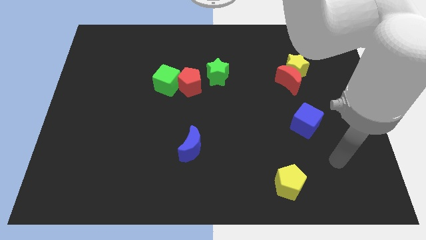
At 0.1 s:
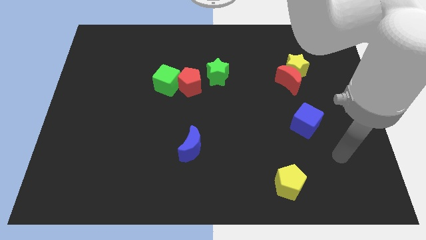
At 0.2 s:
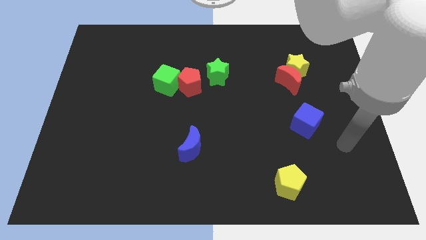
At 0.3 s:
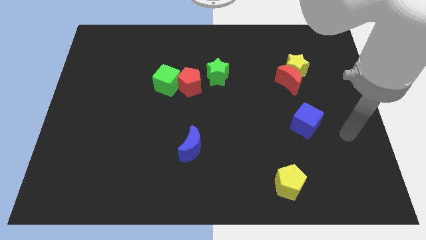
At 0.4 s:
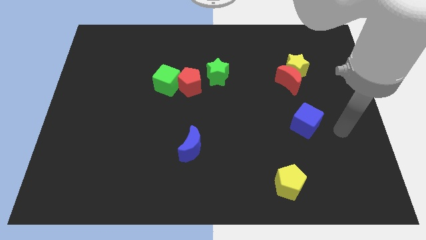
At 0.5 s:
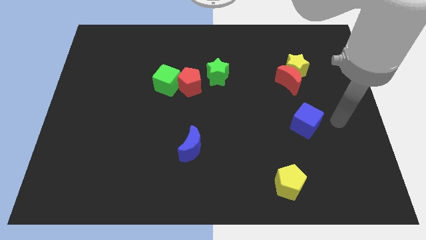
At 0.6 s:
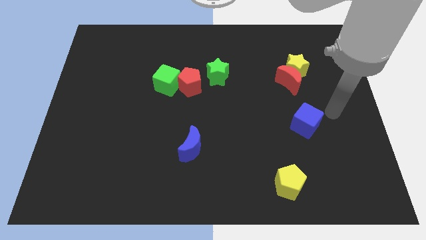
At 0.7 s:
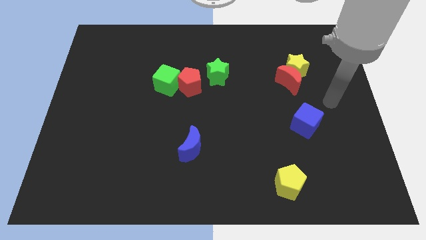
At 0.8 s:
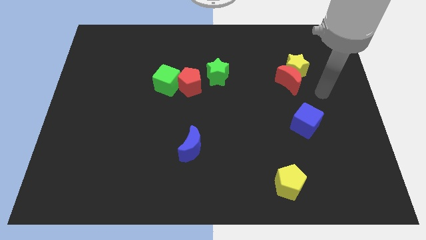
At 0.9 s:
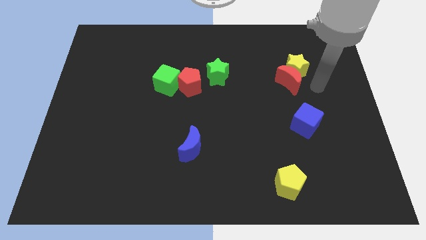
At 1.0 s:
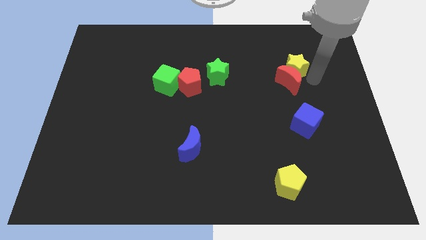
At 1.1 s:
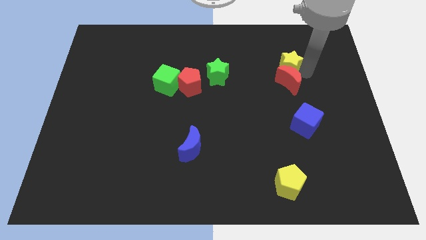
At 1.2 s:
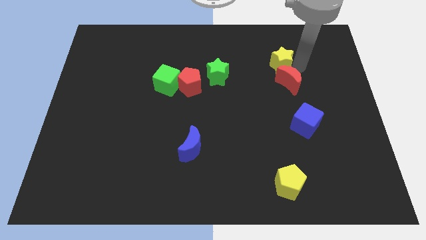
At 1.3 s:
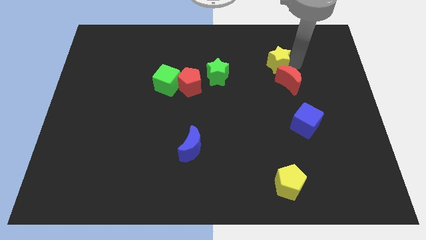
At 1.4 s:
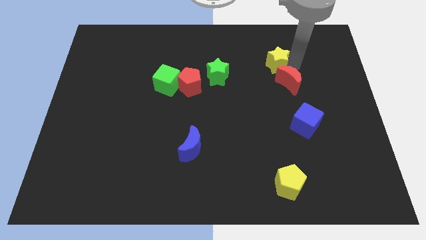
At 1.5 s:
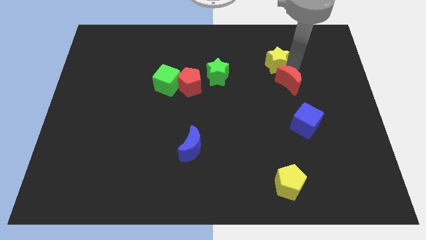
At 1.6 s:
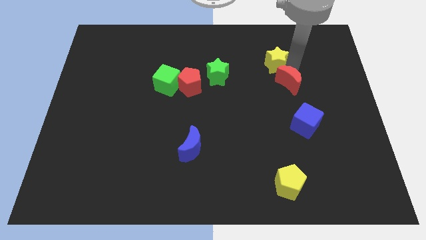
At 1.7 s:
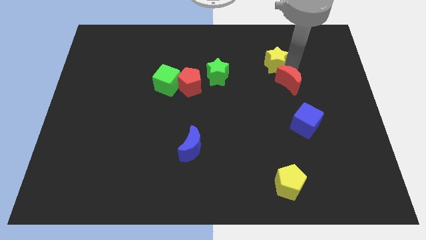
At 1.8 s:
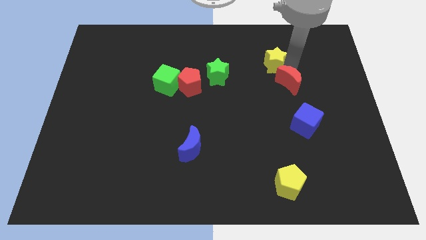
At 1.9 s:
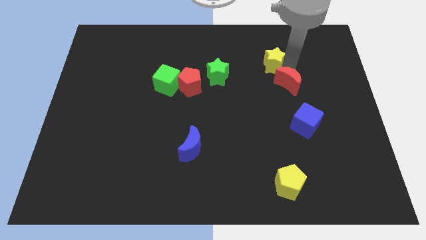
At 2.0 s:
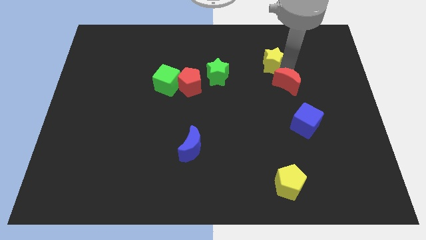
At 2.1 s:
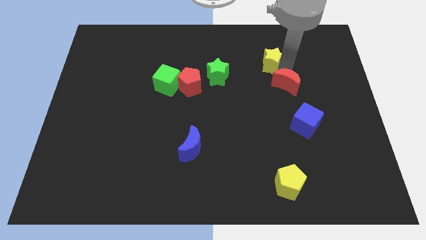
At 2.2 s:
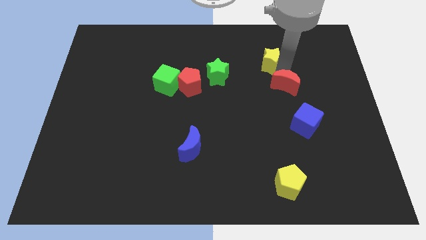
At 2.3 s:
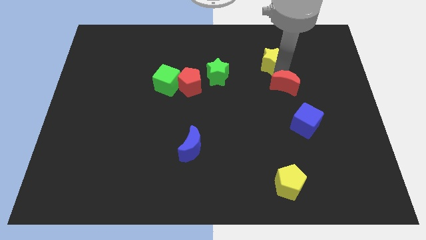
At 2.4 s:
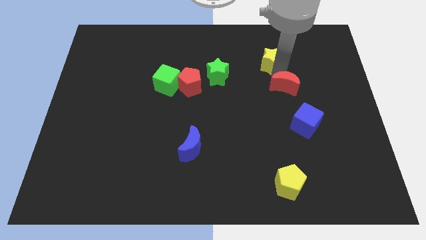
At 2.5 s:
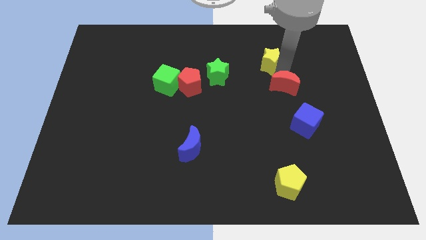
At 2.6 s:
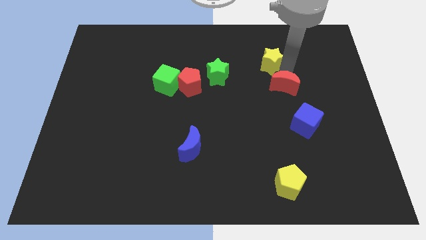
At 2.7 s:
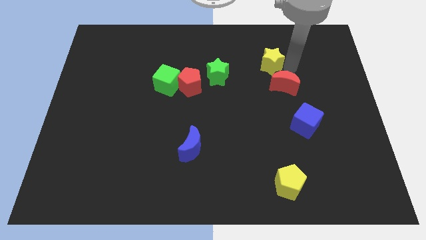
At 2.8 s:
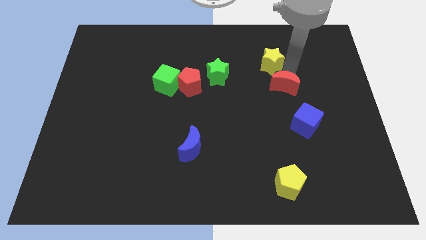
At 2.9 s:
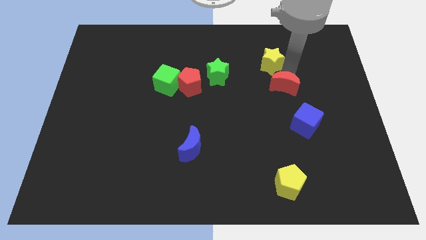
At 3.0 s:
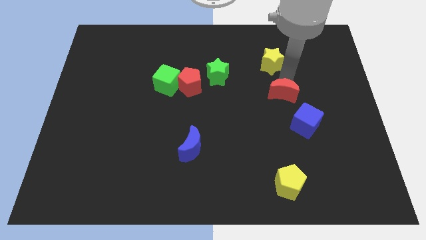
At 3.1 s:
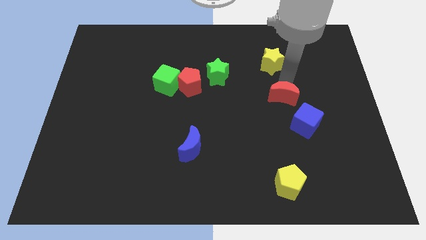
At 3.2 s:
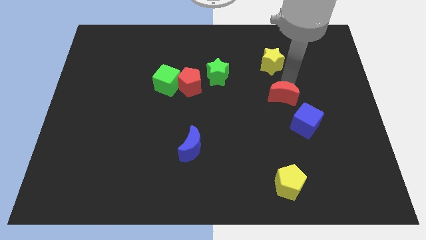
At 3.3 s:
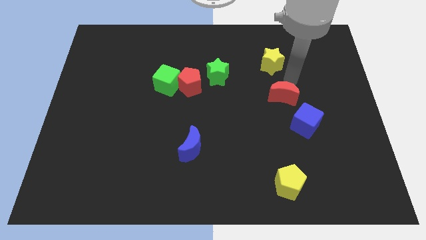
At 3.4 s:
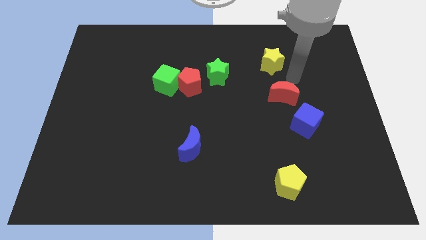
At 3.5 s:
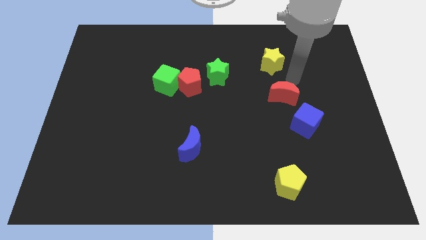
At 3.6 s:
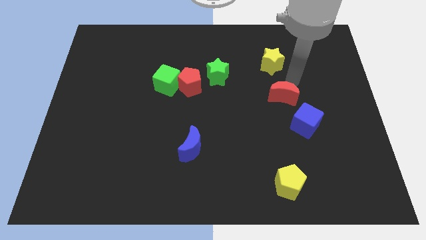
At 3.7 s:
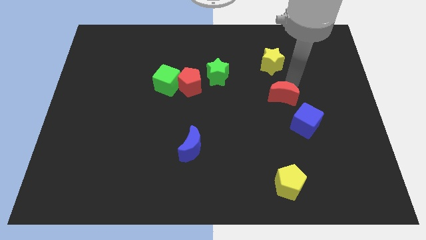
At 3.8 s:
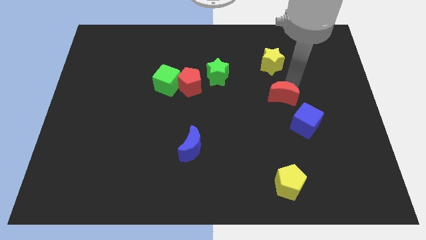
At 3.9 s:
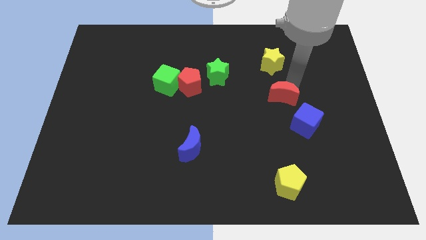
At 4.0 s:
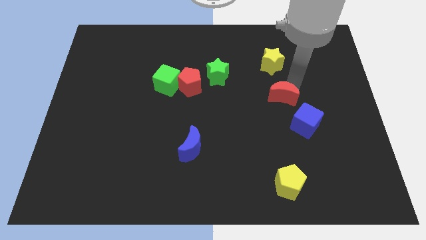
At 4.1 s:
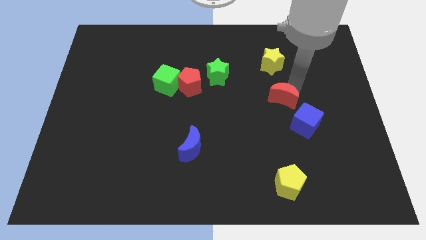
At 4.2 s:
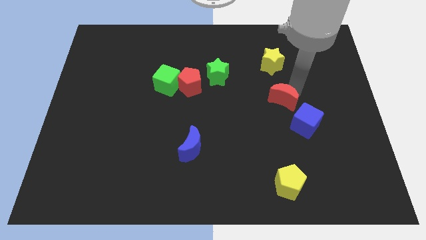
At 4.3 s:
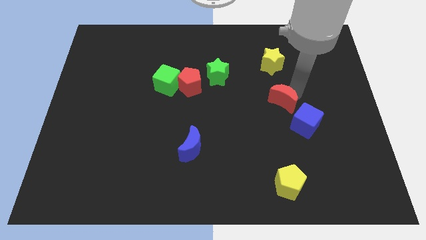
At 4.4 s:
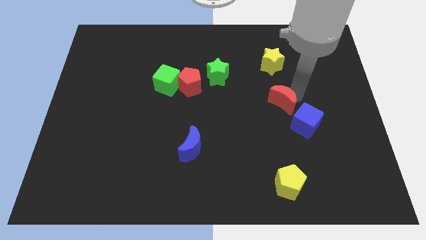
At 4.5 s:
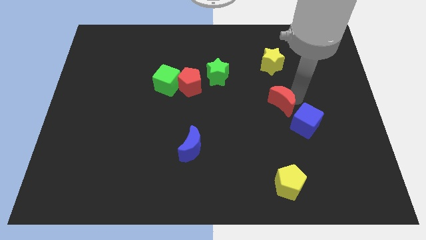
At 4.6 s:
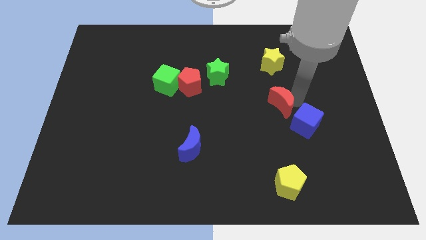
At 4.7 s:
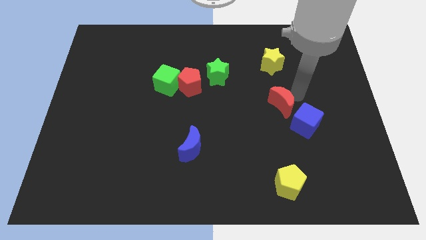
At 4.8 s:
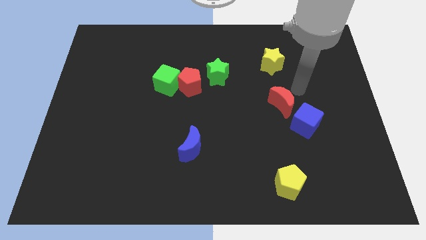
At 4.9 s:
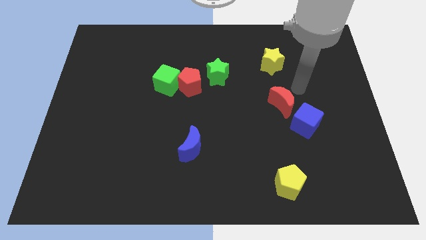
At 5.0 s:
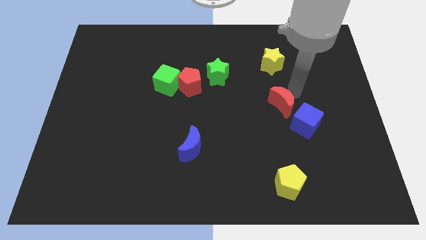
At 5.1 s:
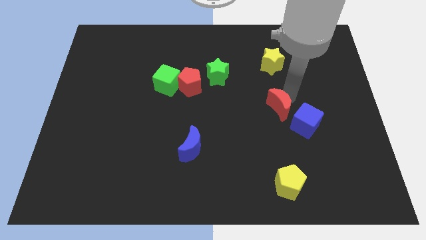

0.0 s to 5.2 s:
move the red moon to the left of the blue cube

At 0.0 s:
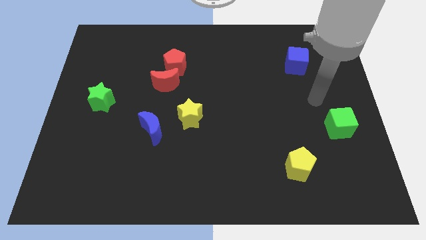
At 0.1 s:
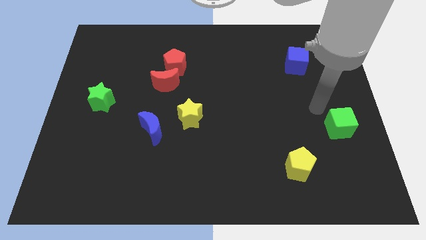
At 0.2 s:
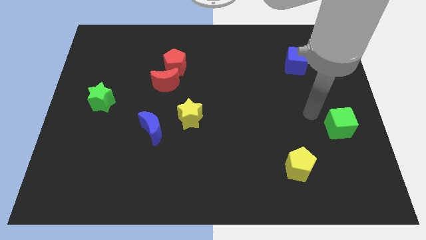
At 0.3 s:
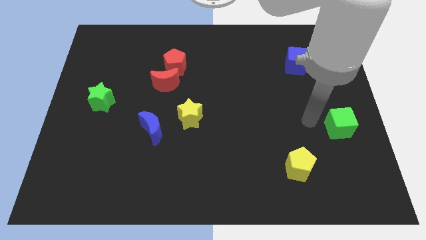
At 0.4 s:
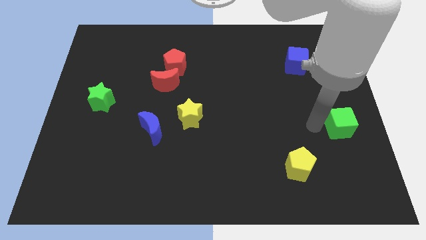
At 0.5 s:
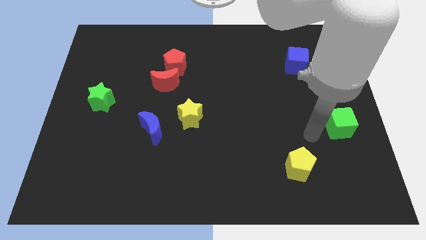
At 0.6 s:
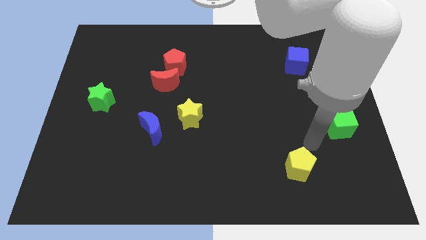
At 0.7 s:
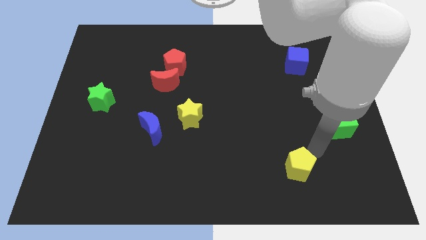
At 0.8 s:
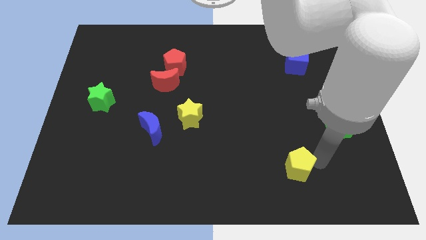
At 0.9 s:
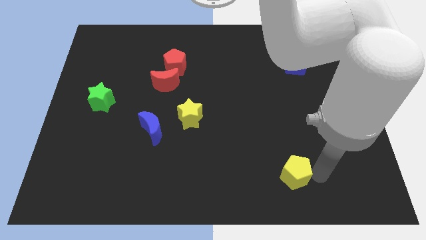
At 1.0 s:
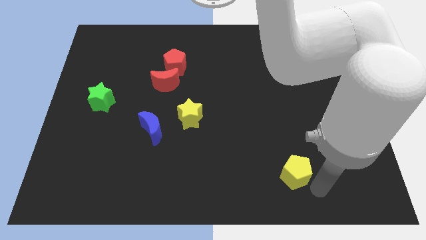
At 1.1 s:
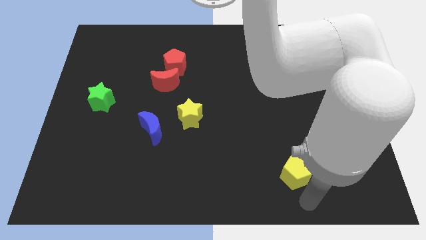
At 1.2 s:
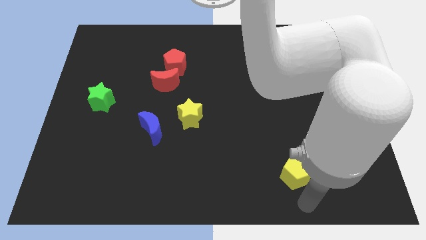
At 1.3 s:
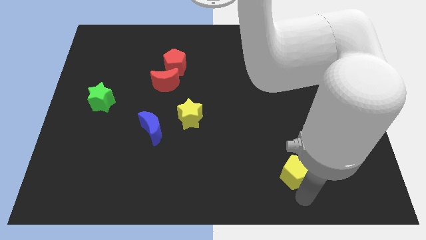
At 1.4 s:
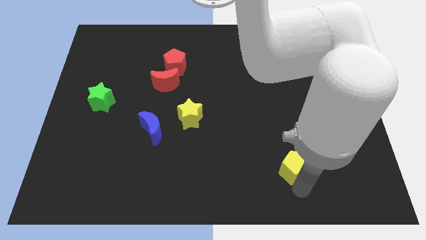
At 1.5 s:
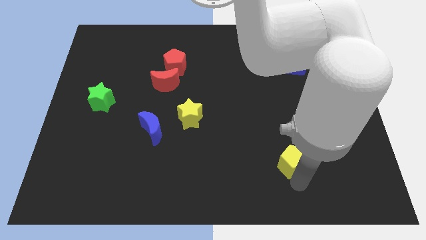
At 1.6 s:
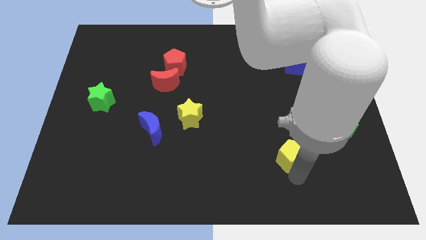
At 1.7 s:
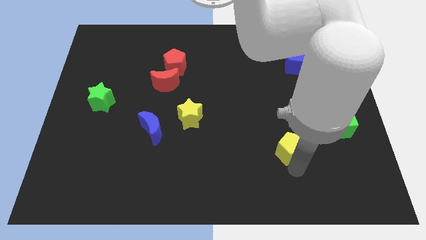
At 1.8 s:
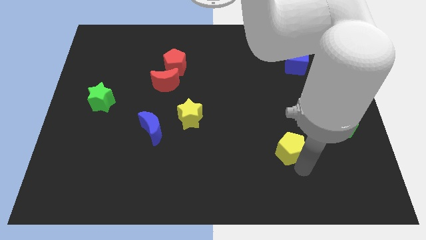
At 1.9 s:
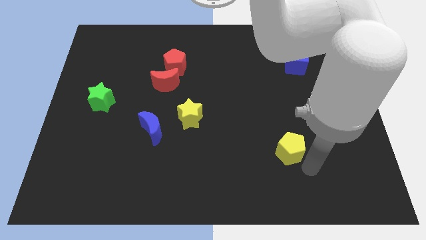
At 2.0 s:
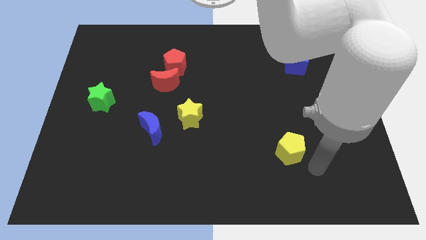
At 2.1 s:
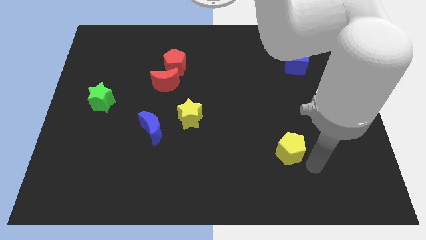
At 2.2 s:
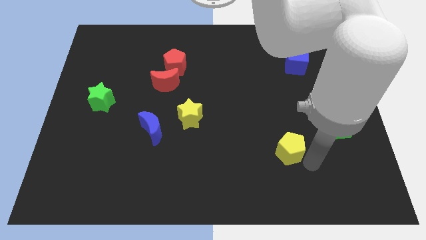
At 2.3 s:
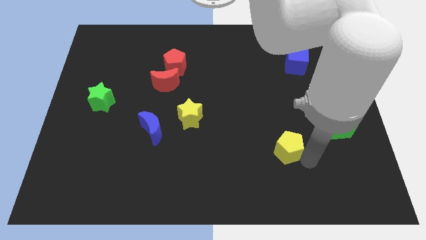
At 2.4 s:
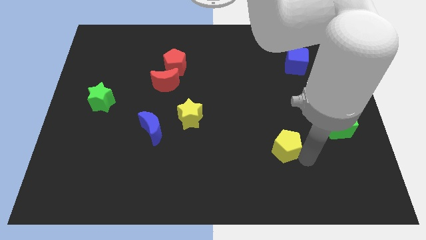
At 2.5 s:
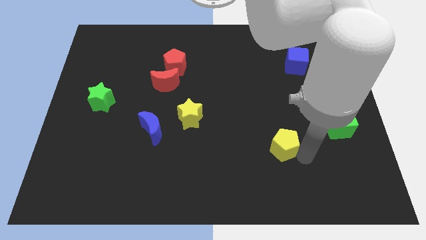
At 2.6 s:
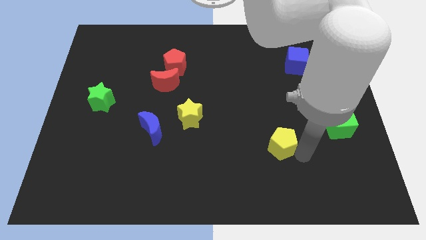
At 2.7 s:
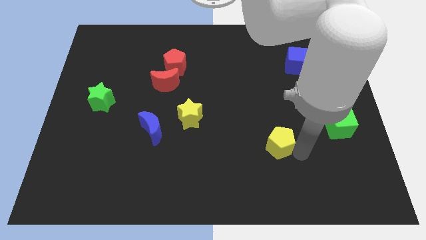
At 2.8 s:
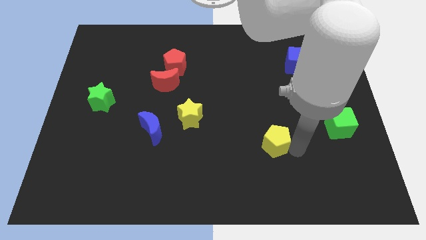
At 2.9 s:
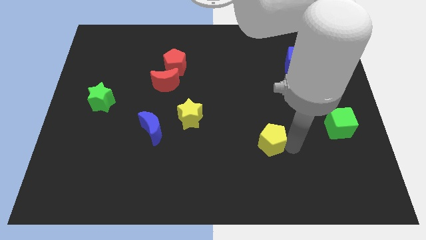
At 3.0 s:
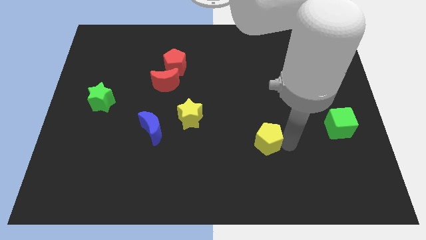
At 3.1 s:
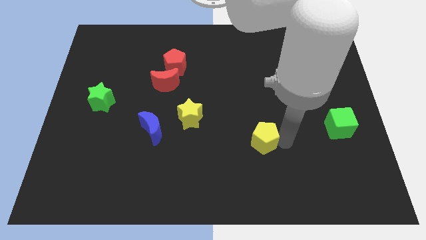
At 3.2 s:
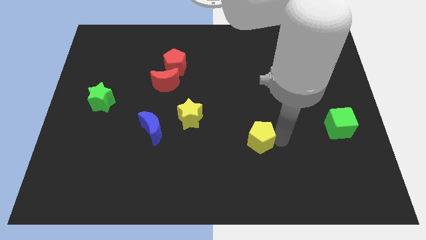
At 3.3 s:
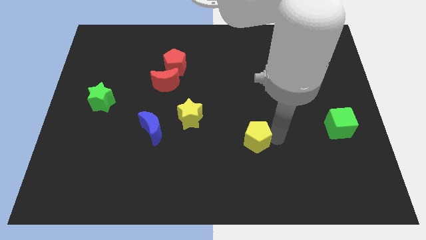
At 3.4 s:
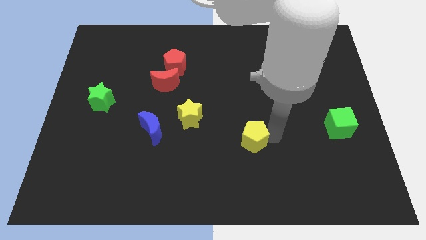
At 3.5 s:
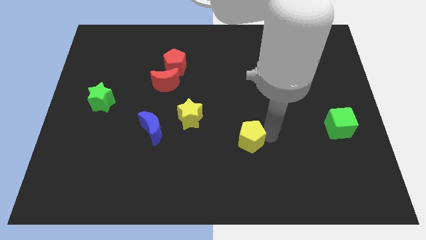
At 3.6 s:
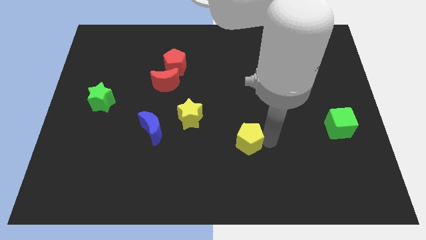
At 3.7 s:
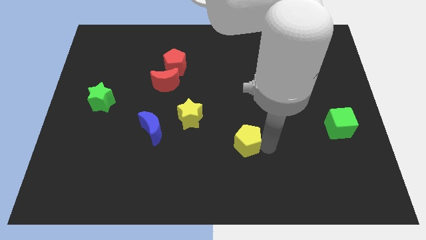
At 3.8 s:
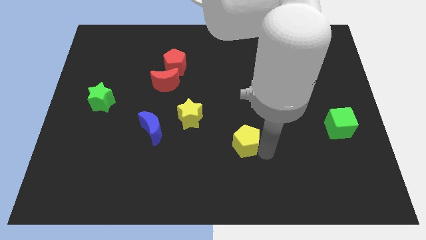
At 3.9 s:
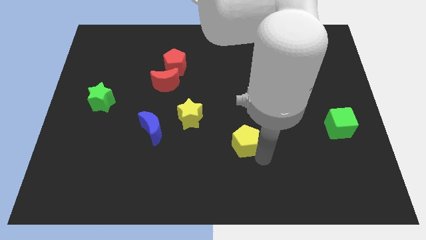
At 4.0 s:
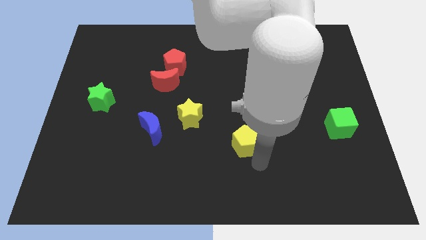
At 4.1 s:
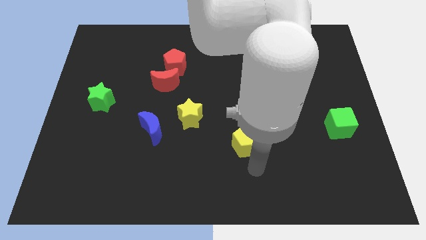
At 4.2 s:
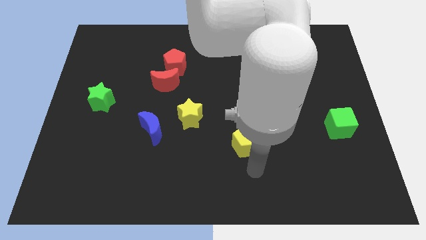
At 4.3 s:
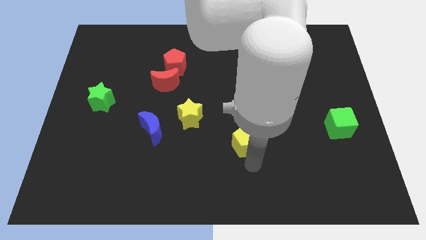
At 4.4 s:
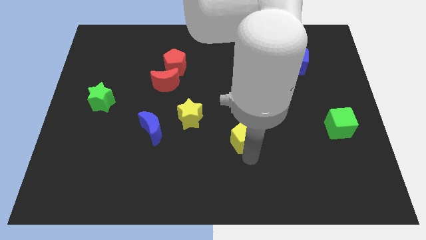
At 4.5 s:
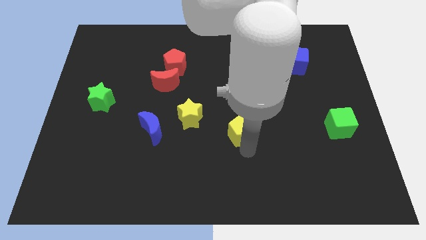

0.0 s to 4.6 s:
put the yellow pentagon just right of the yellow star
